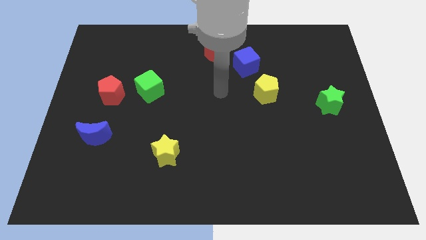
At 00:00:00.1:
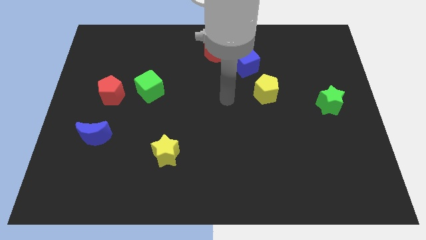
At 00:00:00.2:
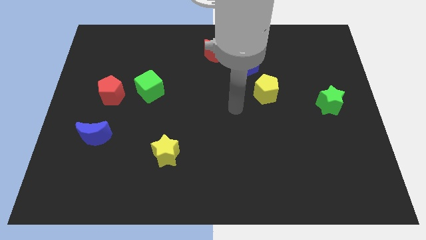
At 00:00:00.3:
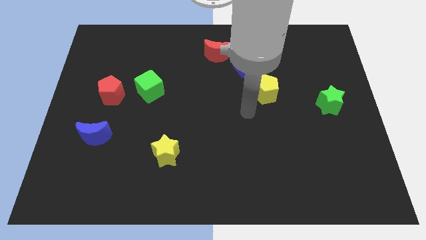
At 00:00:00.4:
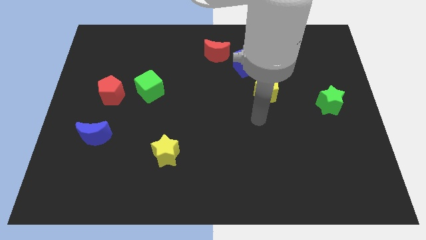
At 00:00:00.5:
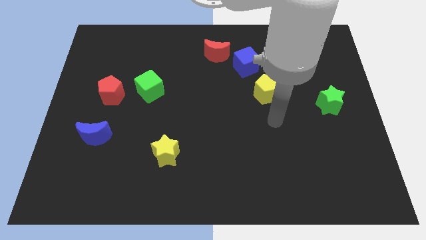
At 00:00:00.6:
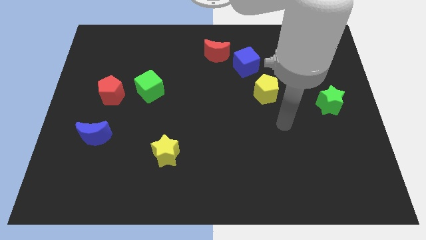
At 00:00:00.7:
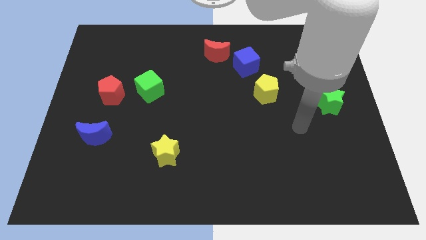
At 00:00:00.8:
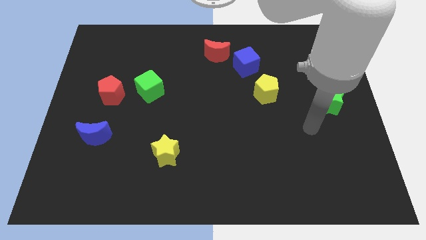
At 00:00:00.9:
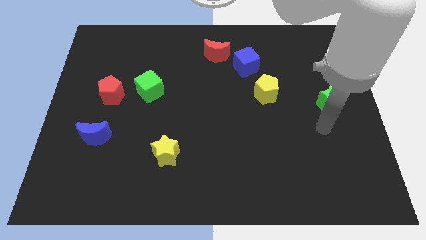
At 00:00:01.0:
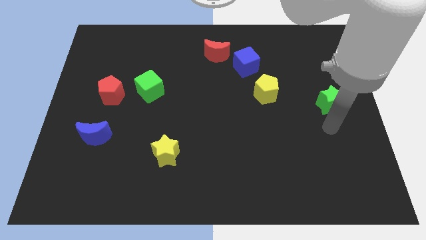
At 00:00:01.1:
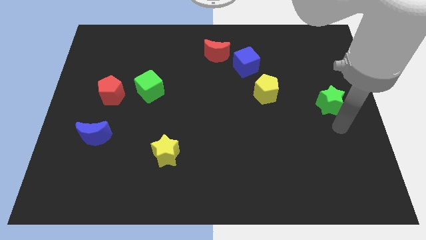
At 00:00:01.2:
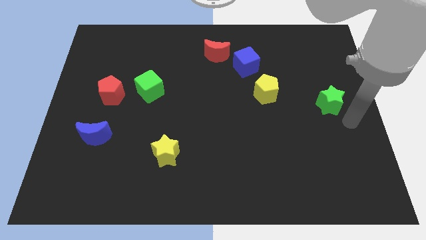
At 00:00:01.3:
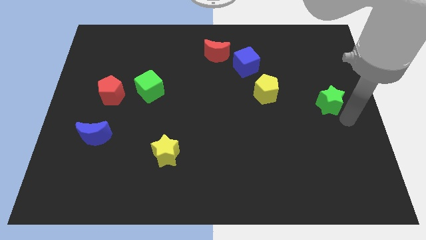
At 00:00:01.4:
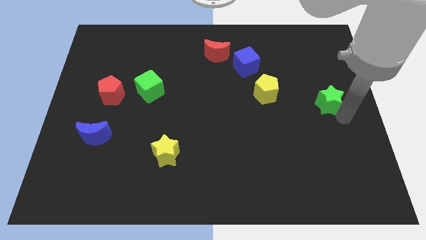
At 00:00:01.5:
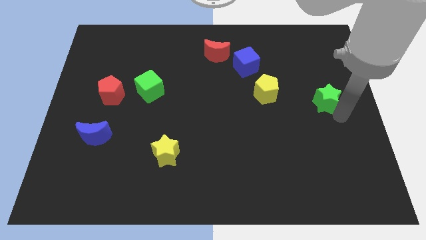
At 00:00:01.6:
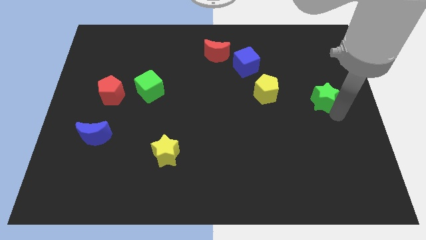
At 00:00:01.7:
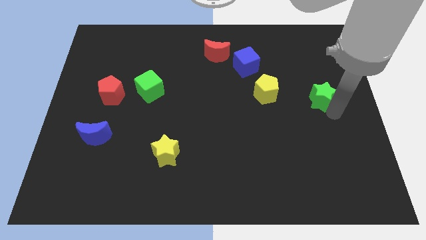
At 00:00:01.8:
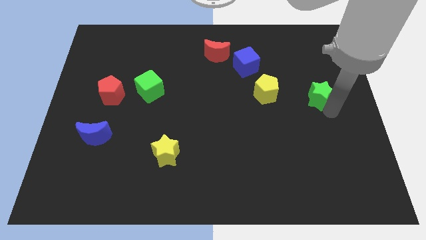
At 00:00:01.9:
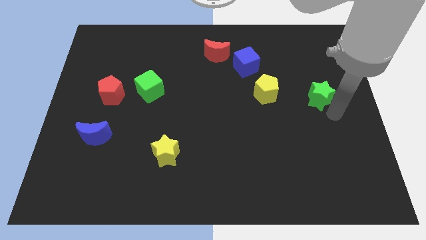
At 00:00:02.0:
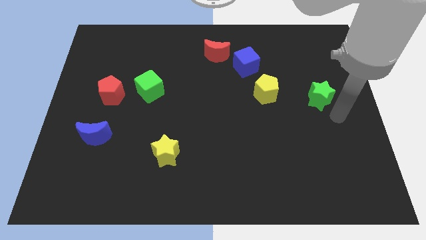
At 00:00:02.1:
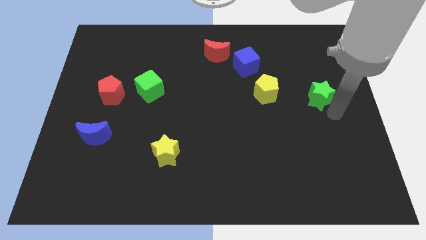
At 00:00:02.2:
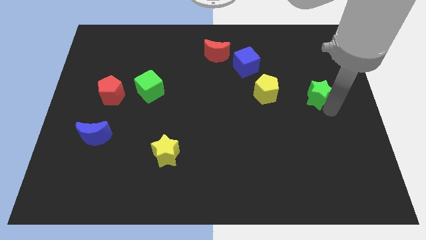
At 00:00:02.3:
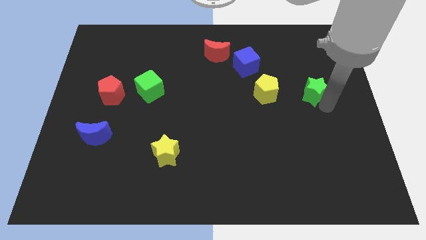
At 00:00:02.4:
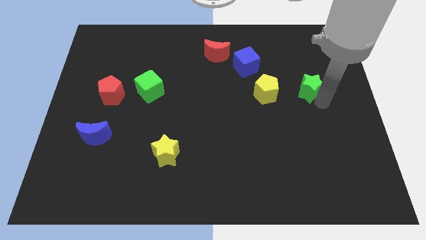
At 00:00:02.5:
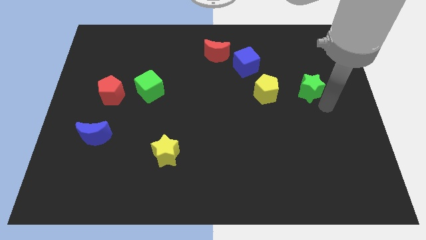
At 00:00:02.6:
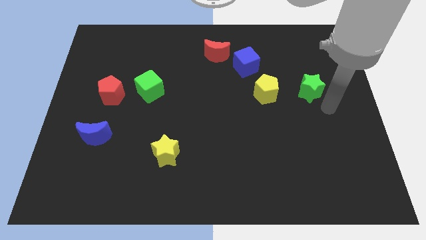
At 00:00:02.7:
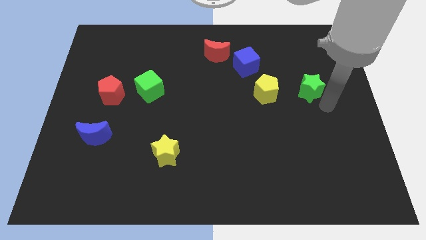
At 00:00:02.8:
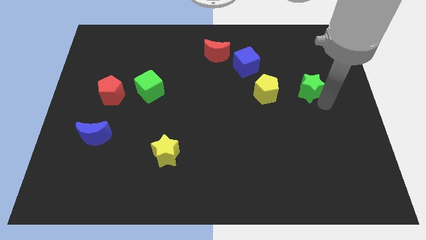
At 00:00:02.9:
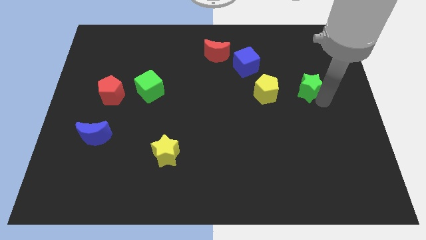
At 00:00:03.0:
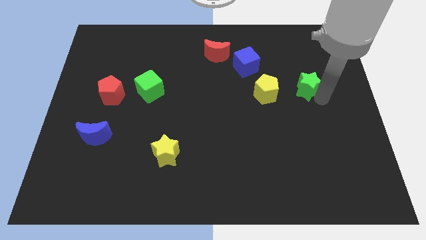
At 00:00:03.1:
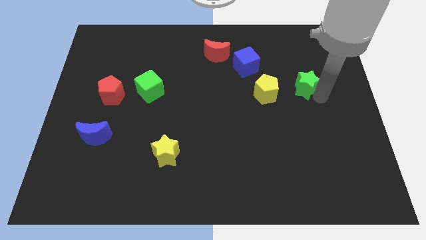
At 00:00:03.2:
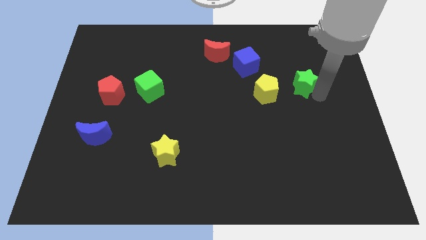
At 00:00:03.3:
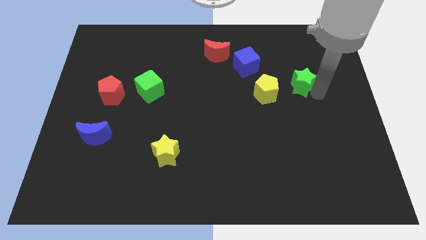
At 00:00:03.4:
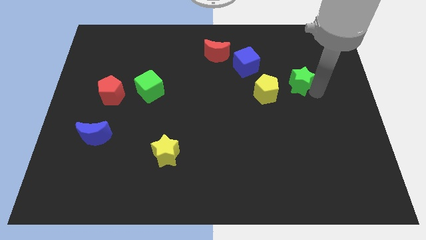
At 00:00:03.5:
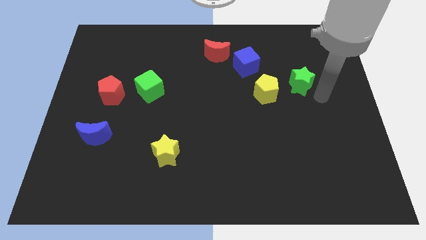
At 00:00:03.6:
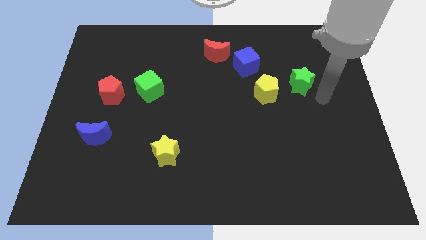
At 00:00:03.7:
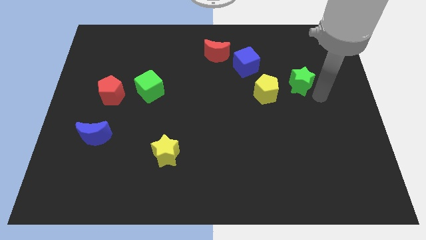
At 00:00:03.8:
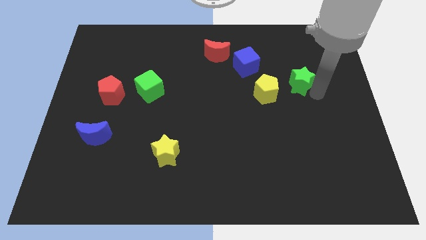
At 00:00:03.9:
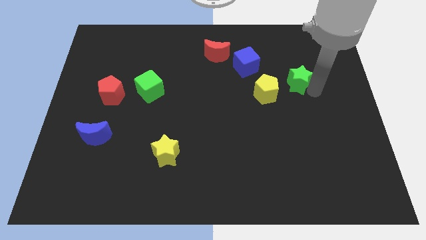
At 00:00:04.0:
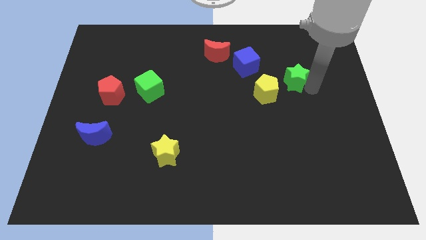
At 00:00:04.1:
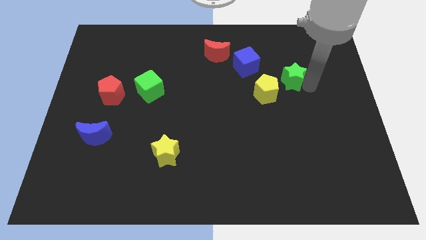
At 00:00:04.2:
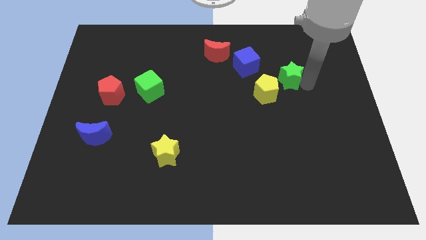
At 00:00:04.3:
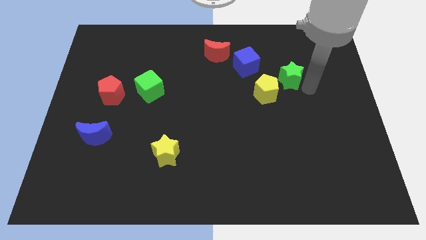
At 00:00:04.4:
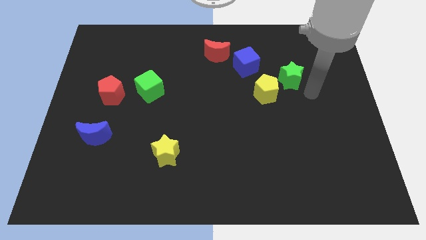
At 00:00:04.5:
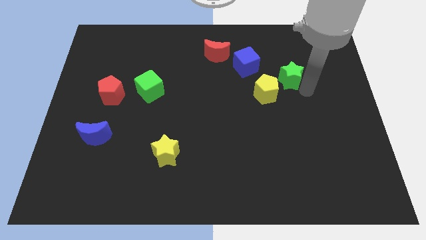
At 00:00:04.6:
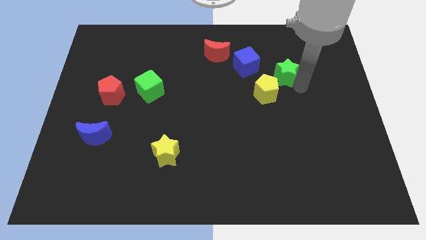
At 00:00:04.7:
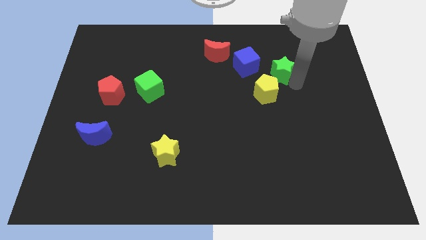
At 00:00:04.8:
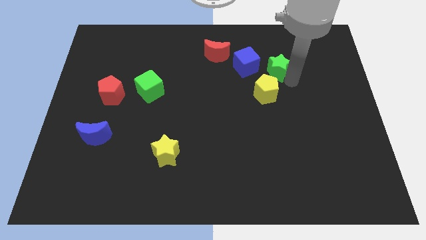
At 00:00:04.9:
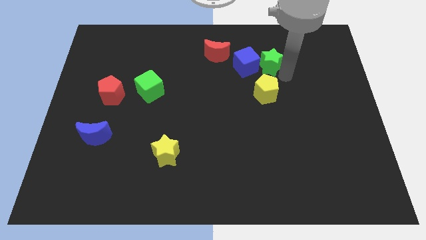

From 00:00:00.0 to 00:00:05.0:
put the green star towards the blue cube

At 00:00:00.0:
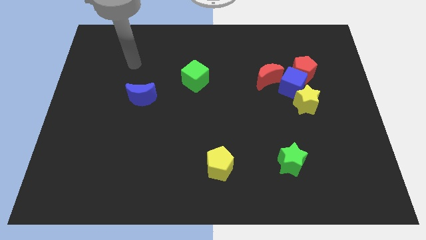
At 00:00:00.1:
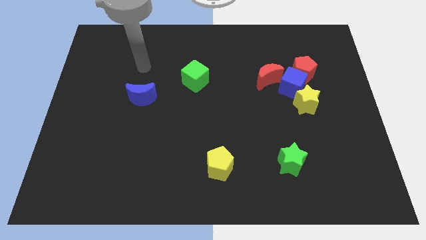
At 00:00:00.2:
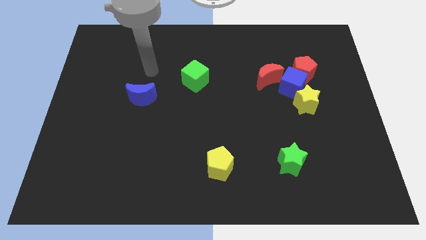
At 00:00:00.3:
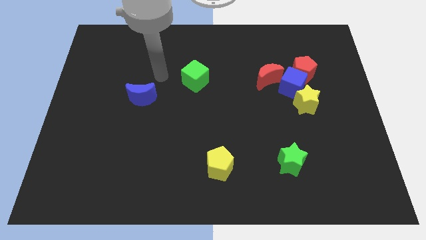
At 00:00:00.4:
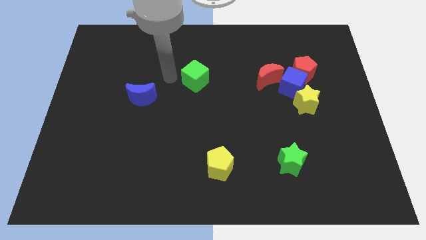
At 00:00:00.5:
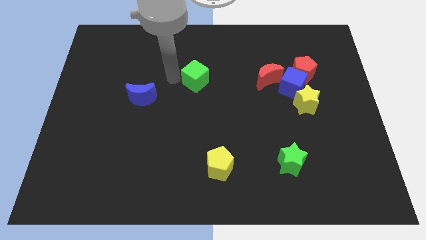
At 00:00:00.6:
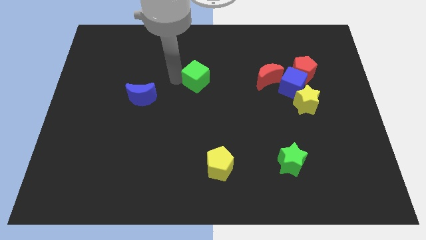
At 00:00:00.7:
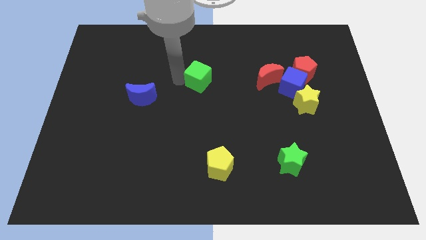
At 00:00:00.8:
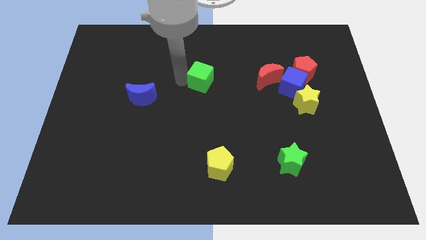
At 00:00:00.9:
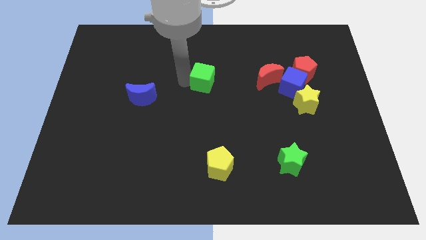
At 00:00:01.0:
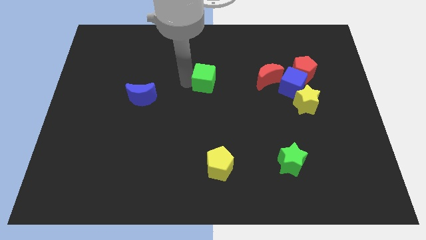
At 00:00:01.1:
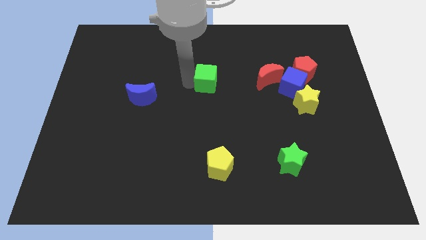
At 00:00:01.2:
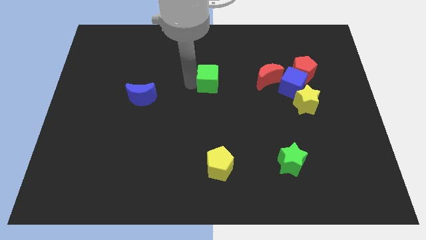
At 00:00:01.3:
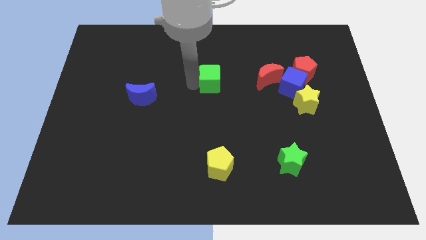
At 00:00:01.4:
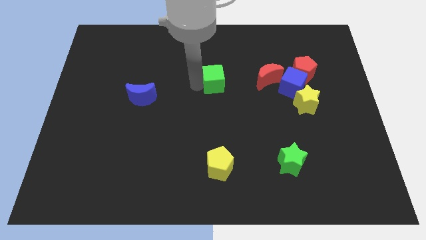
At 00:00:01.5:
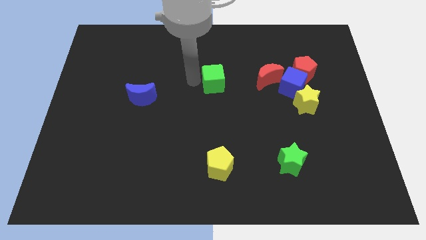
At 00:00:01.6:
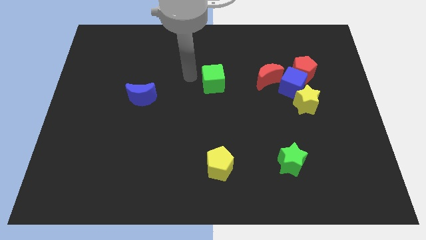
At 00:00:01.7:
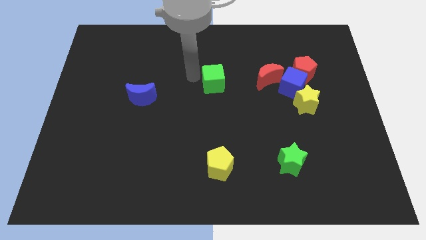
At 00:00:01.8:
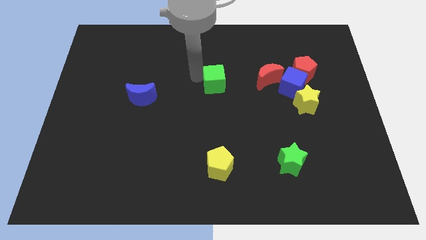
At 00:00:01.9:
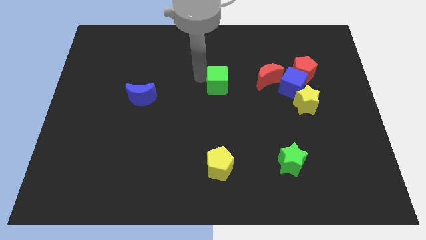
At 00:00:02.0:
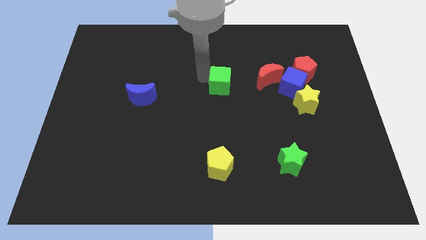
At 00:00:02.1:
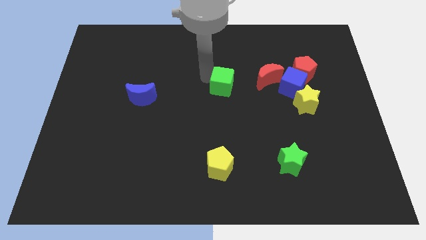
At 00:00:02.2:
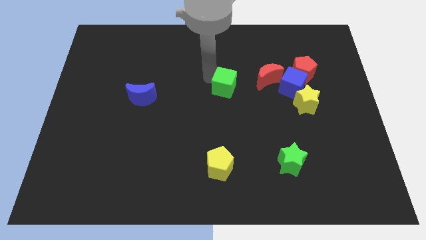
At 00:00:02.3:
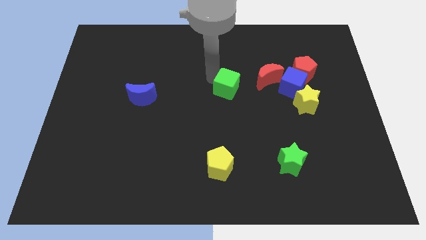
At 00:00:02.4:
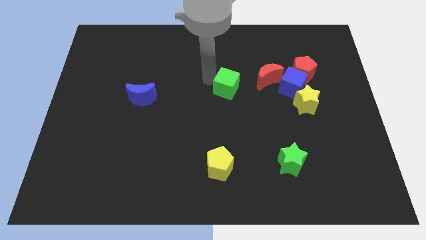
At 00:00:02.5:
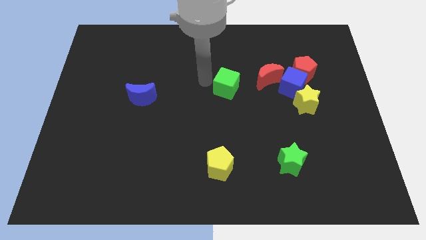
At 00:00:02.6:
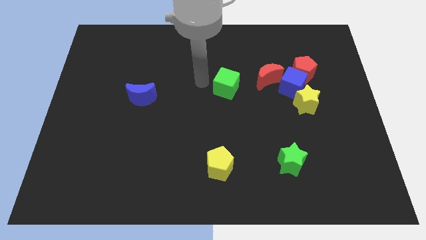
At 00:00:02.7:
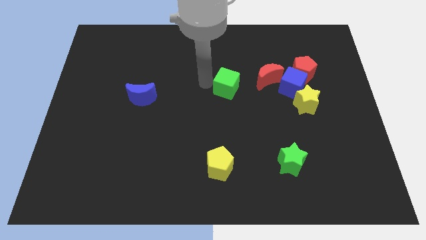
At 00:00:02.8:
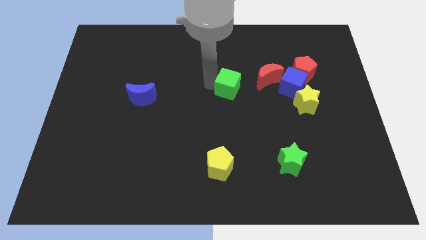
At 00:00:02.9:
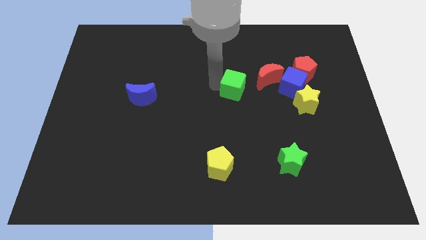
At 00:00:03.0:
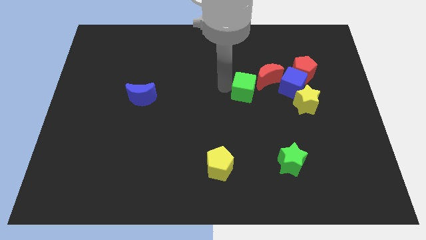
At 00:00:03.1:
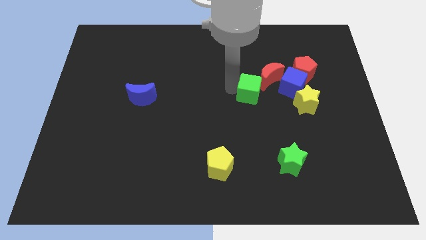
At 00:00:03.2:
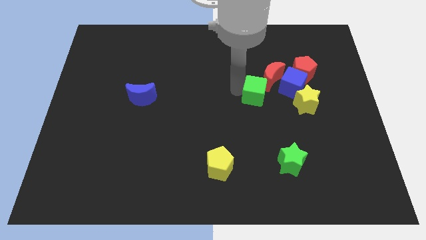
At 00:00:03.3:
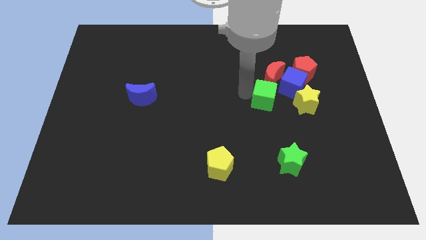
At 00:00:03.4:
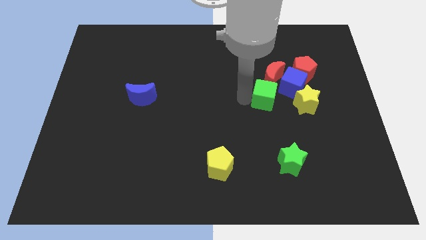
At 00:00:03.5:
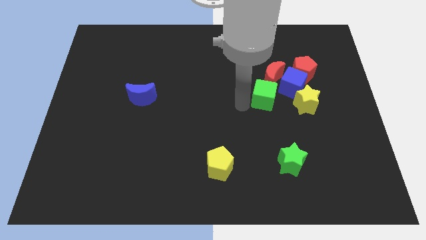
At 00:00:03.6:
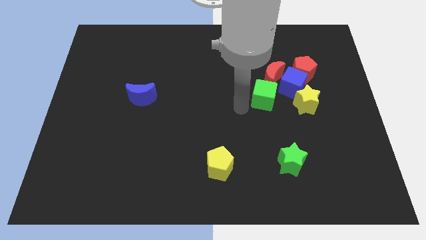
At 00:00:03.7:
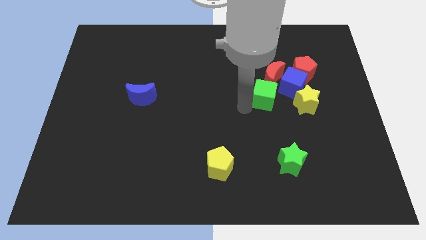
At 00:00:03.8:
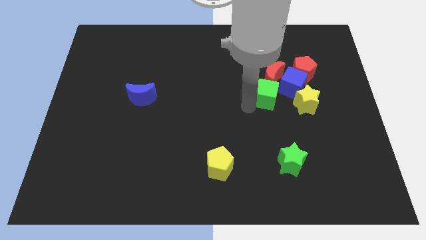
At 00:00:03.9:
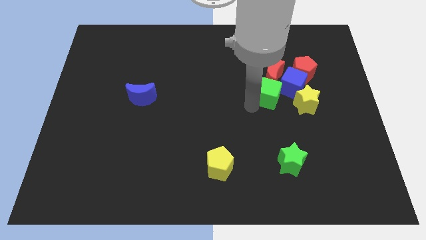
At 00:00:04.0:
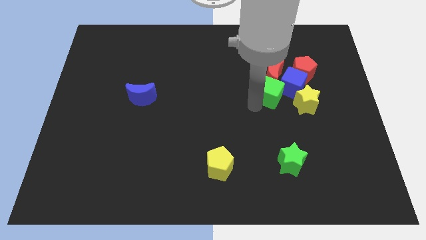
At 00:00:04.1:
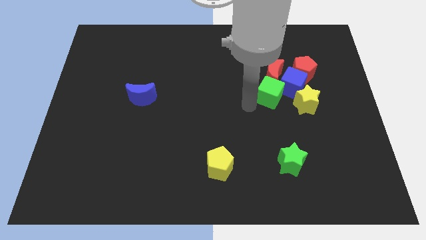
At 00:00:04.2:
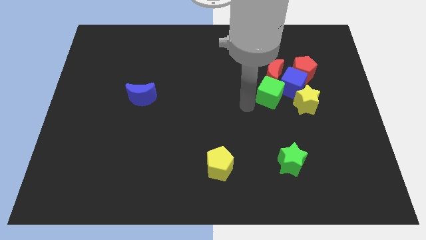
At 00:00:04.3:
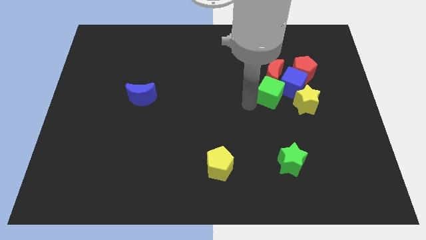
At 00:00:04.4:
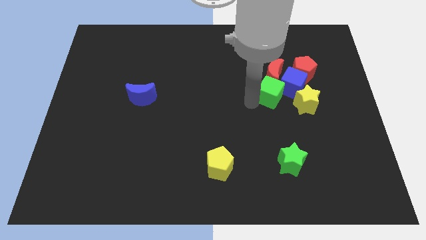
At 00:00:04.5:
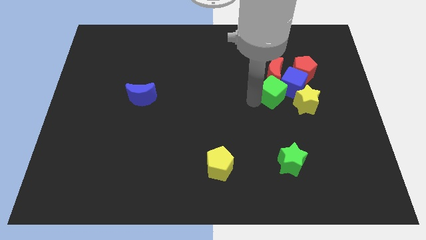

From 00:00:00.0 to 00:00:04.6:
push the green cube towards the blue cube
